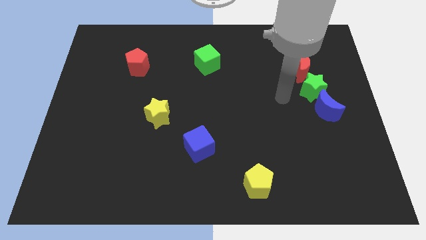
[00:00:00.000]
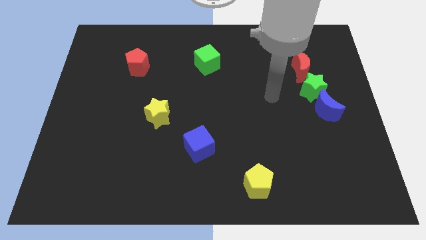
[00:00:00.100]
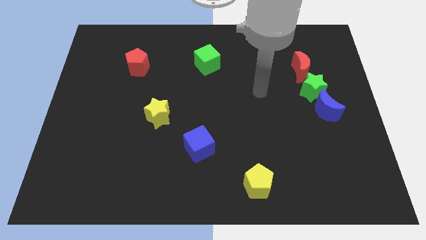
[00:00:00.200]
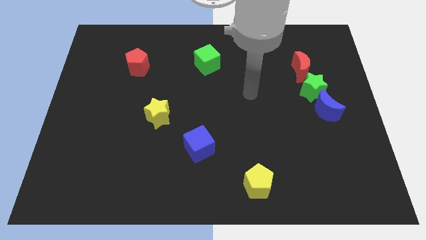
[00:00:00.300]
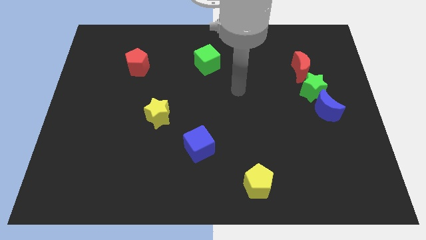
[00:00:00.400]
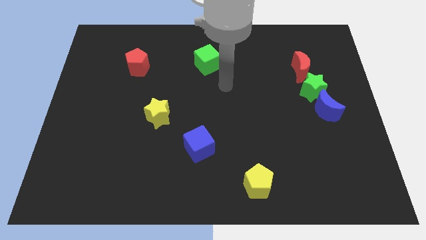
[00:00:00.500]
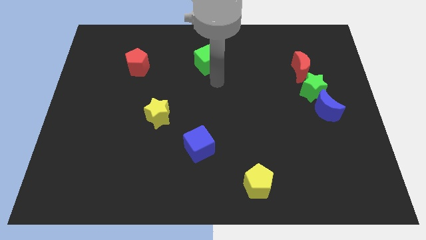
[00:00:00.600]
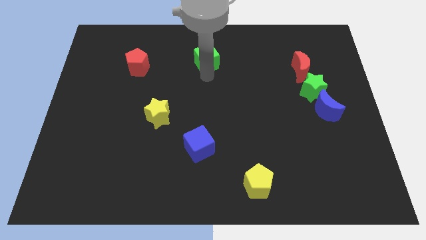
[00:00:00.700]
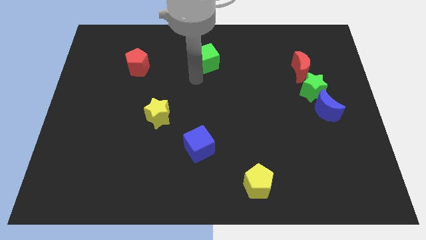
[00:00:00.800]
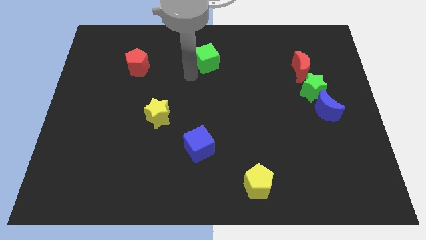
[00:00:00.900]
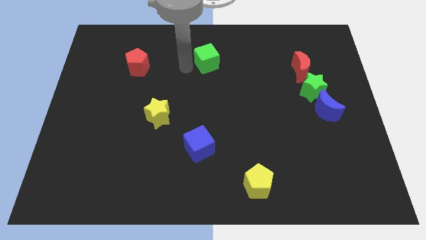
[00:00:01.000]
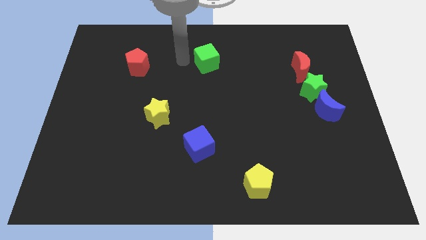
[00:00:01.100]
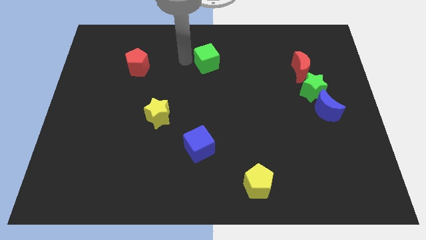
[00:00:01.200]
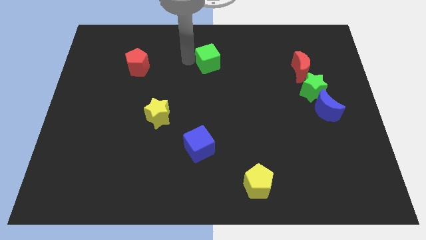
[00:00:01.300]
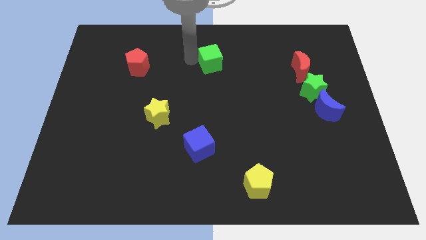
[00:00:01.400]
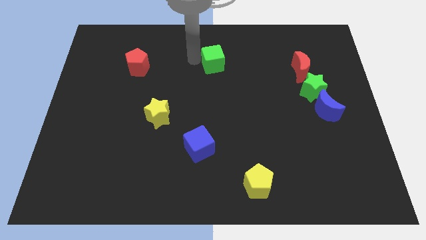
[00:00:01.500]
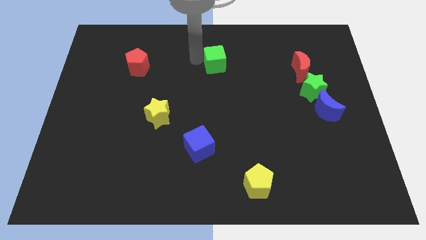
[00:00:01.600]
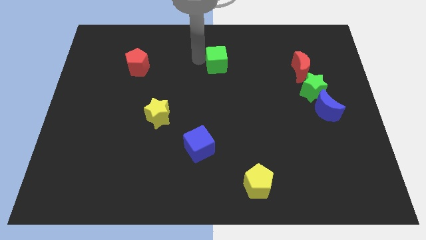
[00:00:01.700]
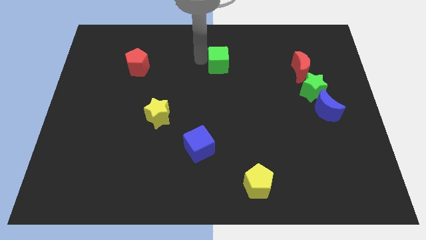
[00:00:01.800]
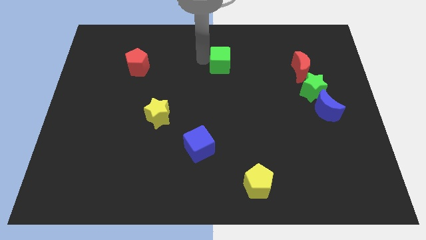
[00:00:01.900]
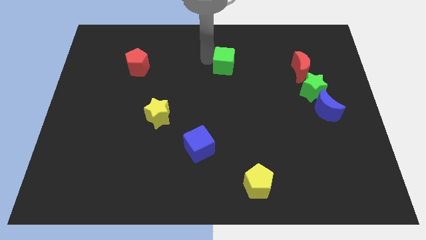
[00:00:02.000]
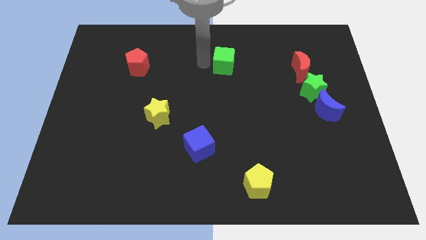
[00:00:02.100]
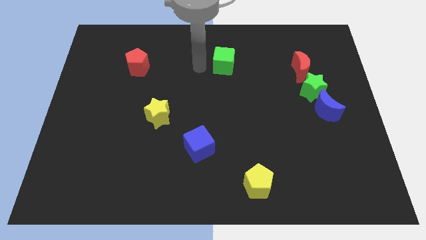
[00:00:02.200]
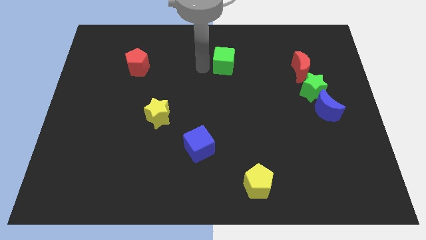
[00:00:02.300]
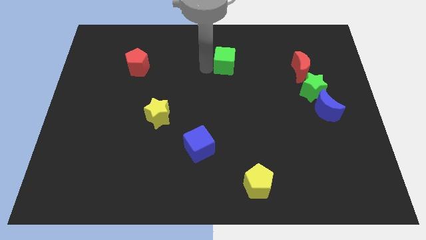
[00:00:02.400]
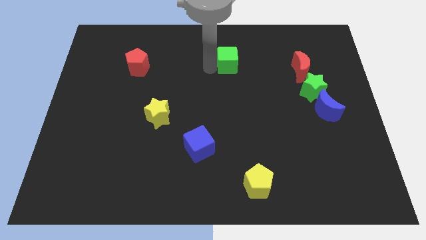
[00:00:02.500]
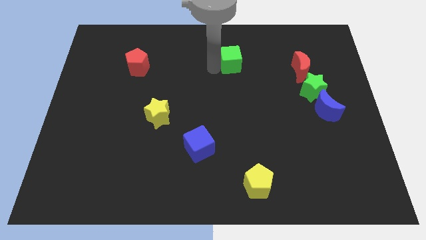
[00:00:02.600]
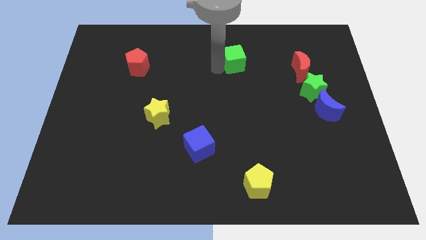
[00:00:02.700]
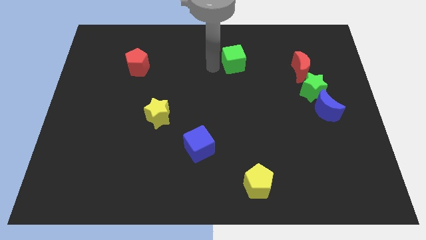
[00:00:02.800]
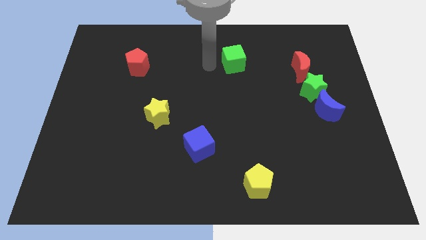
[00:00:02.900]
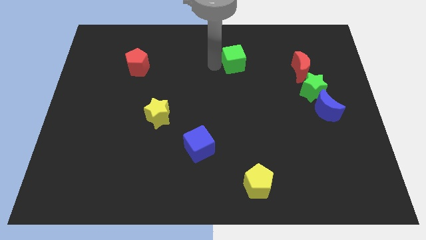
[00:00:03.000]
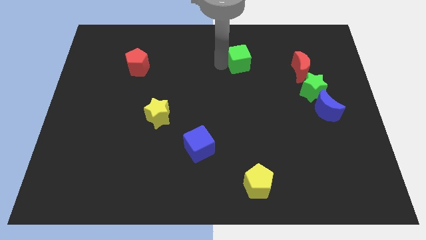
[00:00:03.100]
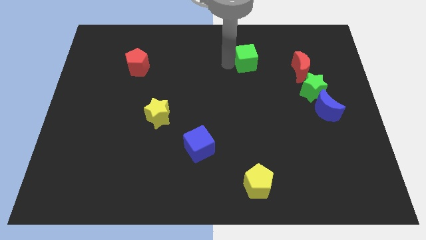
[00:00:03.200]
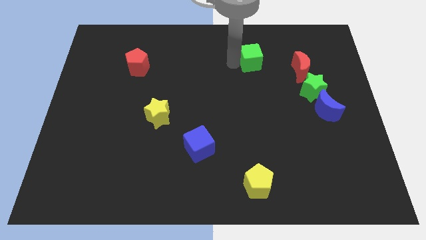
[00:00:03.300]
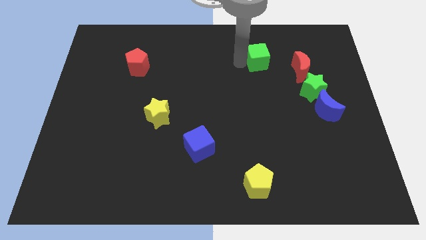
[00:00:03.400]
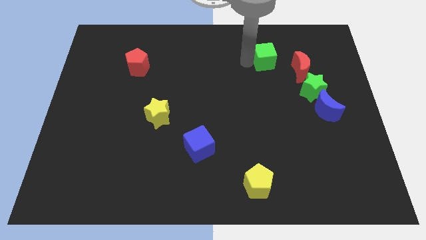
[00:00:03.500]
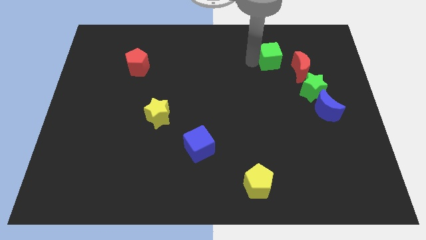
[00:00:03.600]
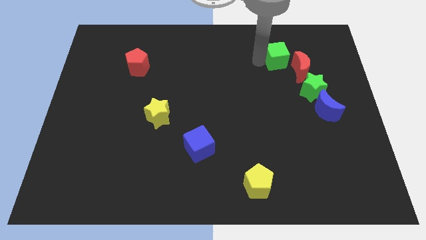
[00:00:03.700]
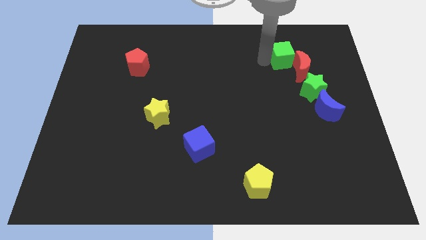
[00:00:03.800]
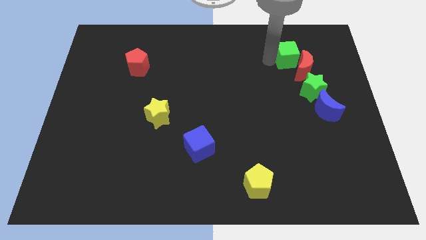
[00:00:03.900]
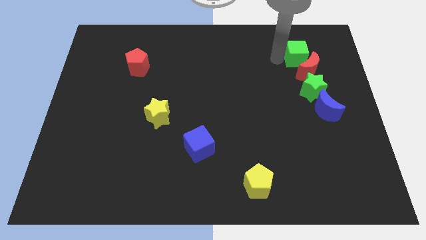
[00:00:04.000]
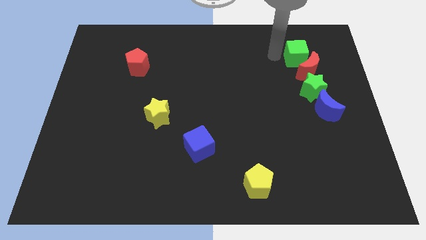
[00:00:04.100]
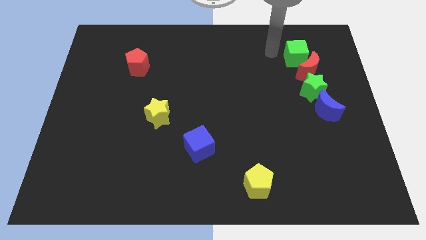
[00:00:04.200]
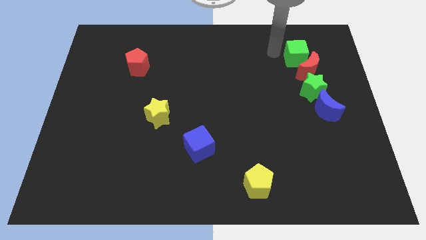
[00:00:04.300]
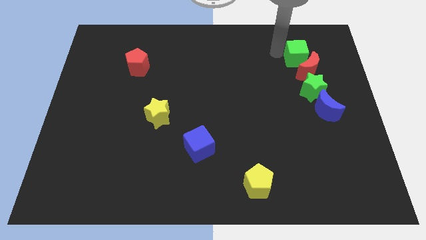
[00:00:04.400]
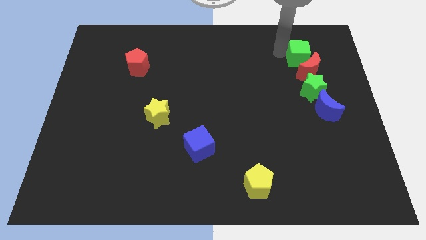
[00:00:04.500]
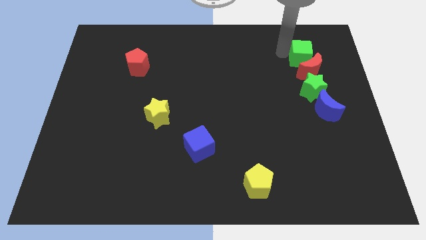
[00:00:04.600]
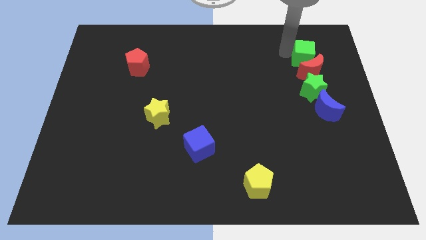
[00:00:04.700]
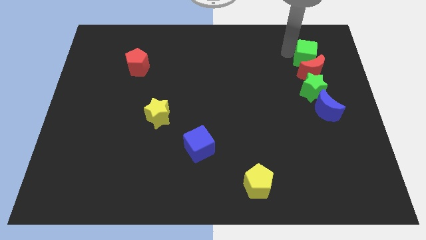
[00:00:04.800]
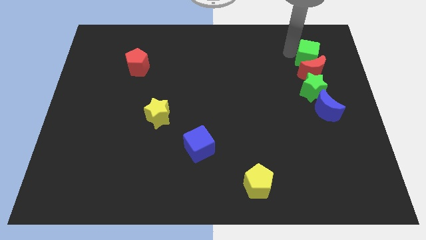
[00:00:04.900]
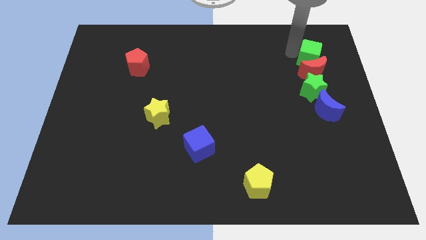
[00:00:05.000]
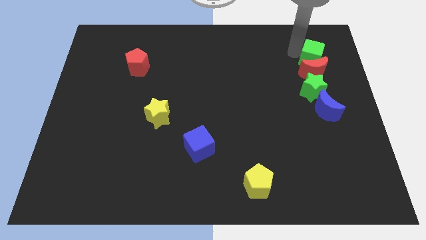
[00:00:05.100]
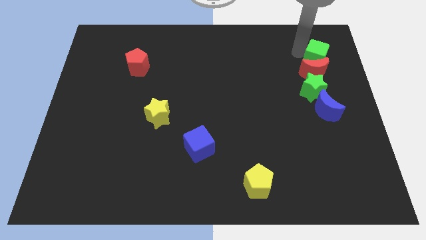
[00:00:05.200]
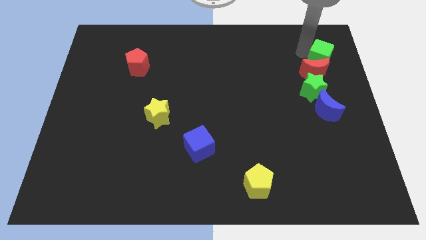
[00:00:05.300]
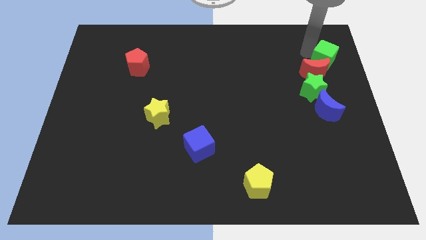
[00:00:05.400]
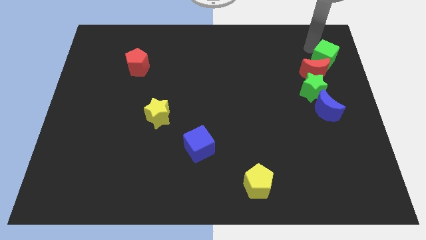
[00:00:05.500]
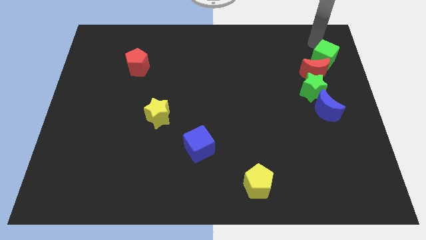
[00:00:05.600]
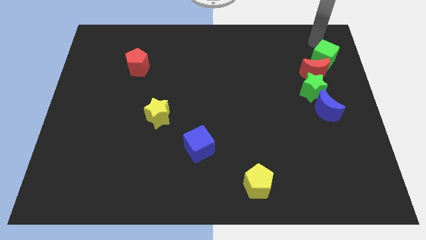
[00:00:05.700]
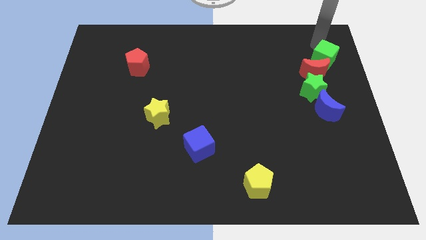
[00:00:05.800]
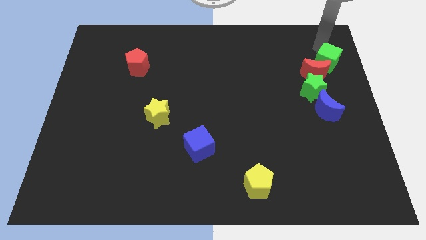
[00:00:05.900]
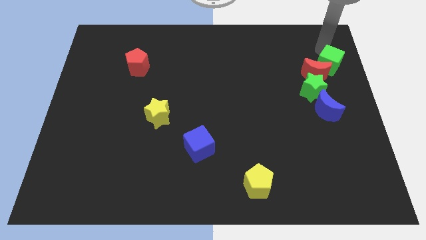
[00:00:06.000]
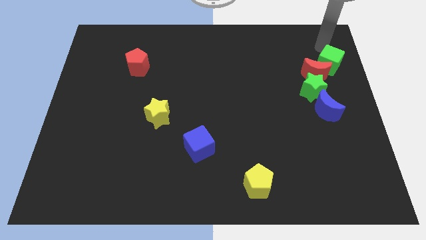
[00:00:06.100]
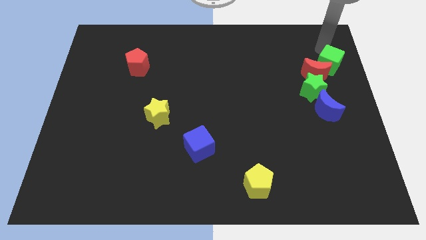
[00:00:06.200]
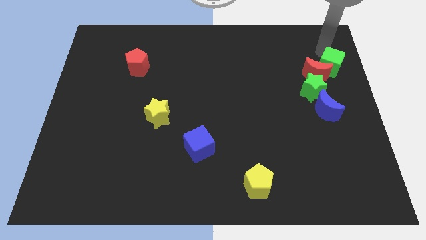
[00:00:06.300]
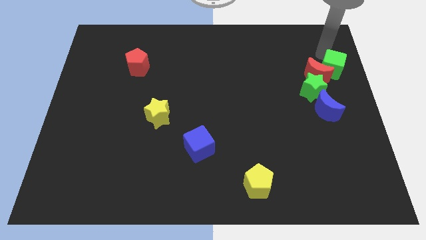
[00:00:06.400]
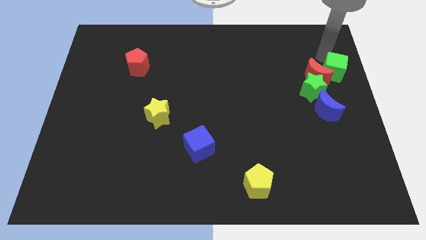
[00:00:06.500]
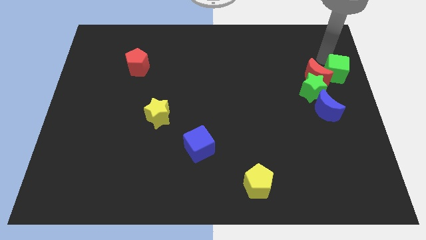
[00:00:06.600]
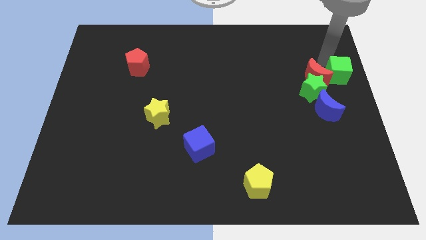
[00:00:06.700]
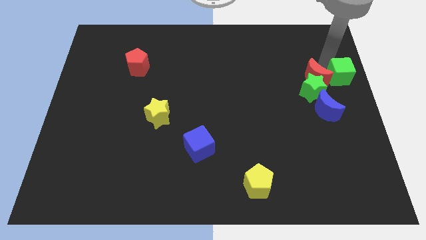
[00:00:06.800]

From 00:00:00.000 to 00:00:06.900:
push the green cube diagonally down and to the right of the red moon

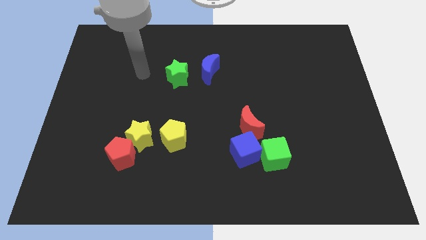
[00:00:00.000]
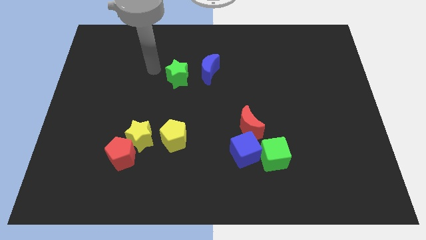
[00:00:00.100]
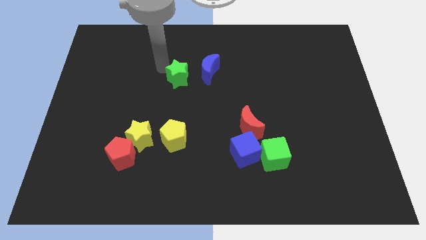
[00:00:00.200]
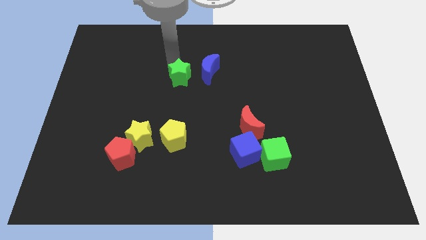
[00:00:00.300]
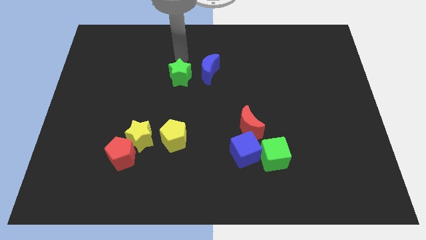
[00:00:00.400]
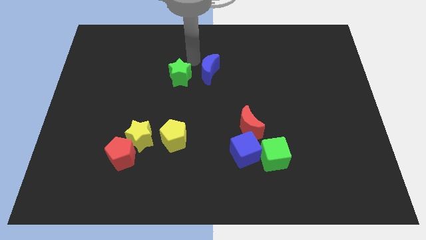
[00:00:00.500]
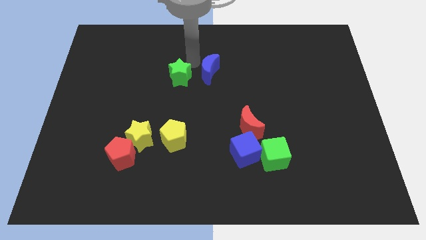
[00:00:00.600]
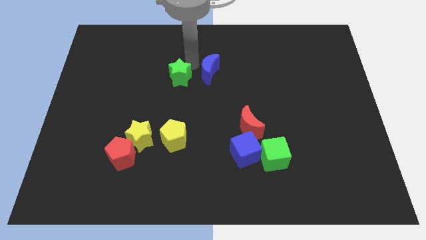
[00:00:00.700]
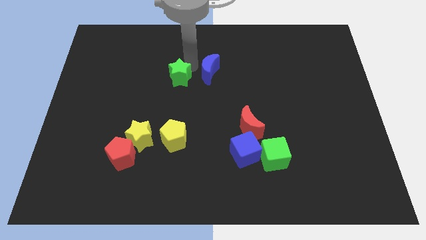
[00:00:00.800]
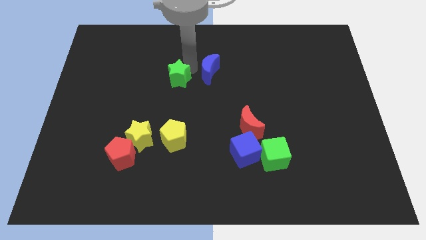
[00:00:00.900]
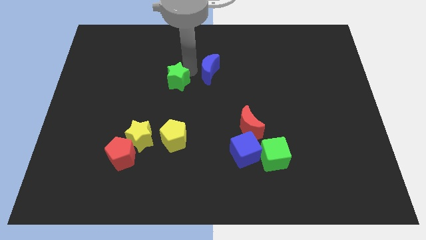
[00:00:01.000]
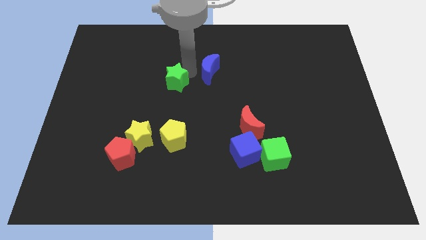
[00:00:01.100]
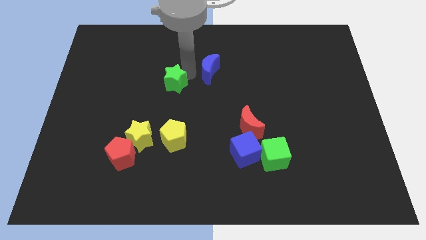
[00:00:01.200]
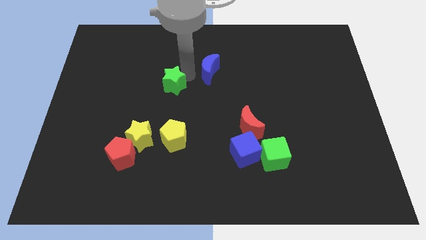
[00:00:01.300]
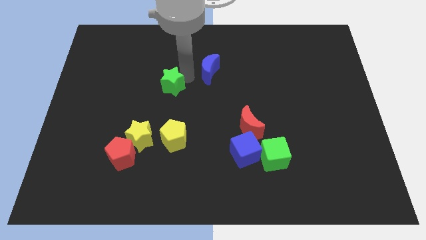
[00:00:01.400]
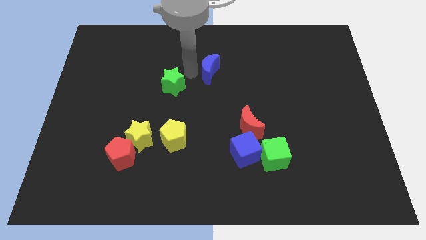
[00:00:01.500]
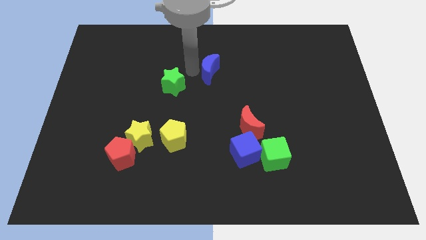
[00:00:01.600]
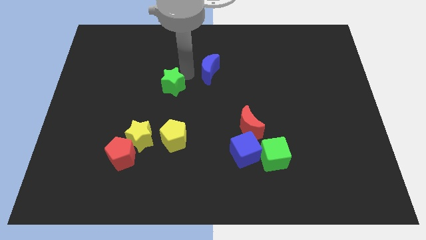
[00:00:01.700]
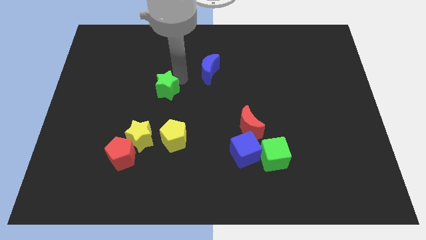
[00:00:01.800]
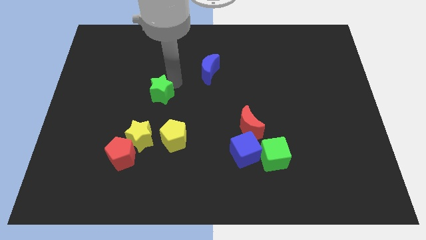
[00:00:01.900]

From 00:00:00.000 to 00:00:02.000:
move the green star to the top of the yellow star
